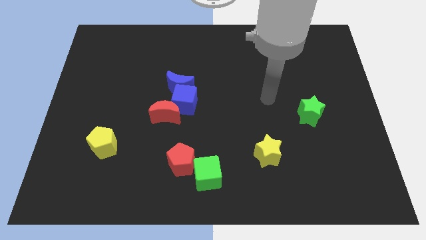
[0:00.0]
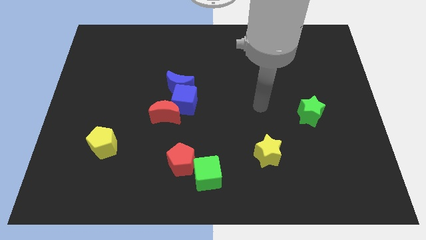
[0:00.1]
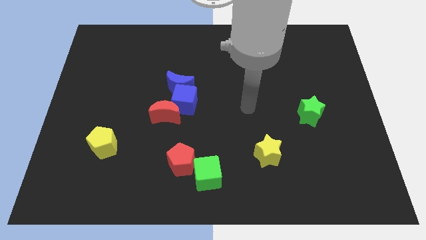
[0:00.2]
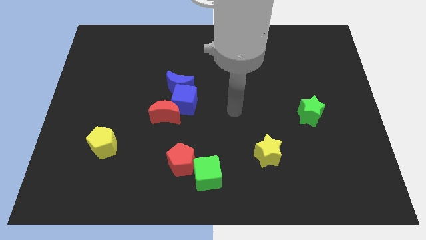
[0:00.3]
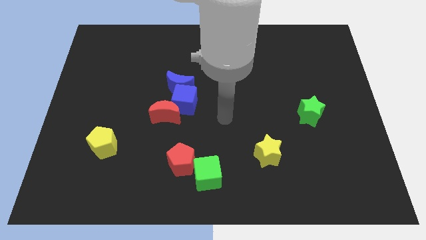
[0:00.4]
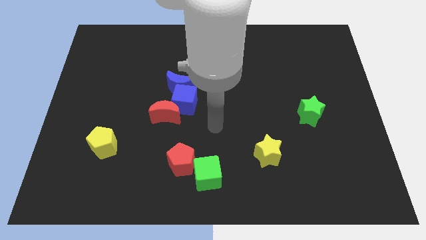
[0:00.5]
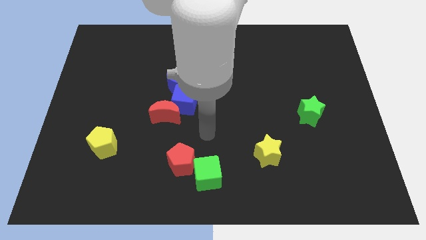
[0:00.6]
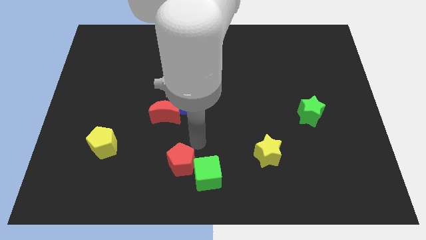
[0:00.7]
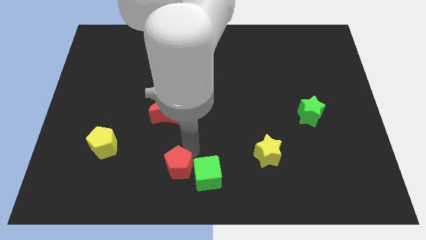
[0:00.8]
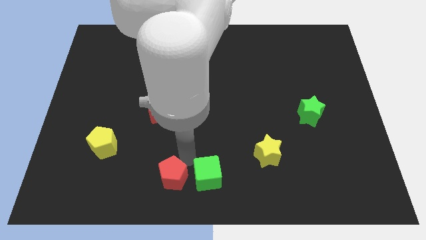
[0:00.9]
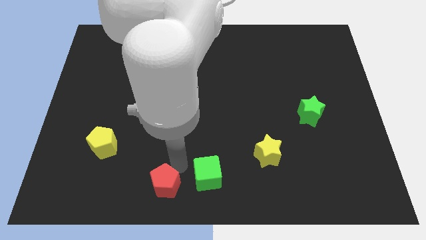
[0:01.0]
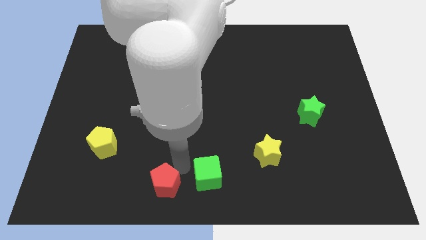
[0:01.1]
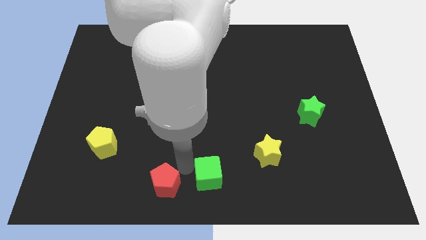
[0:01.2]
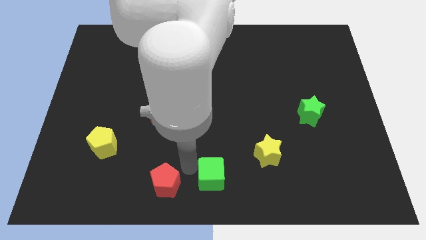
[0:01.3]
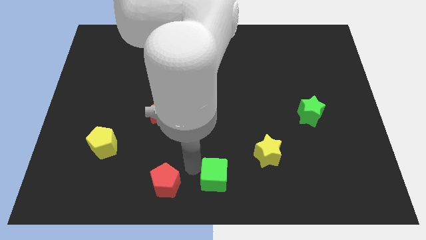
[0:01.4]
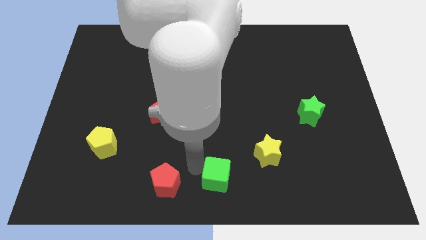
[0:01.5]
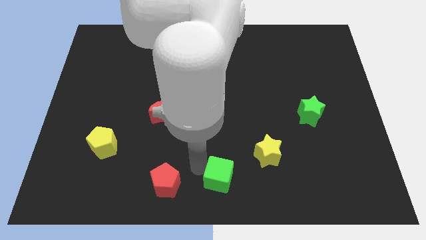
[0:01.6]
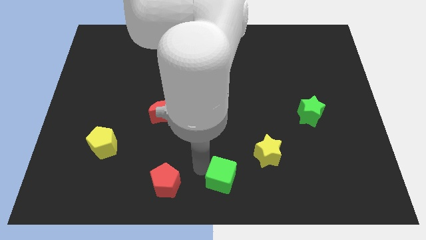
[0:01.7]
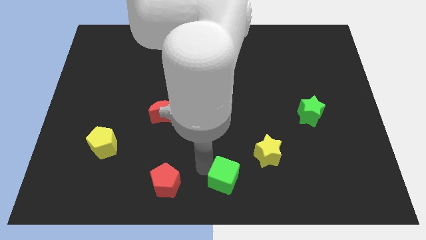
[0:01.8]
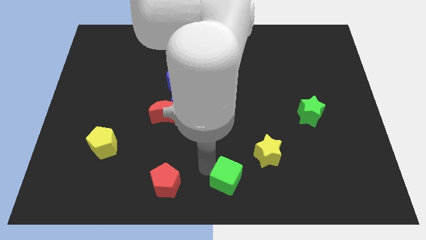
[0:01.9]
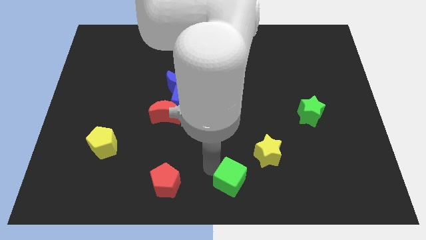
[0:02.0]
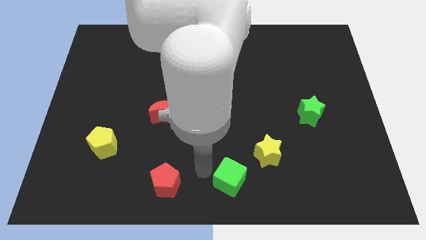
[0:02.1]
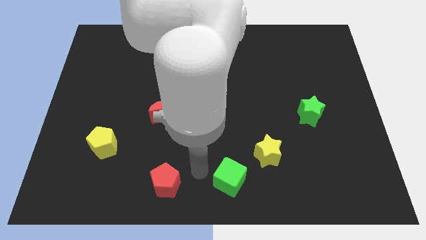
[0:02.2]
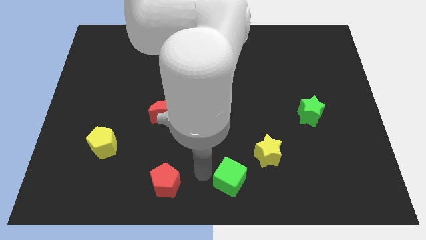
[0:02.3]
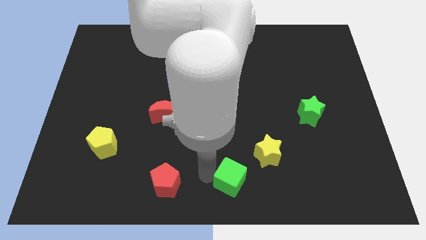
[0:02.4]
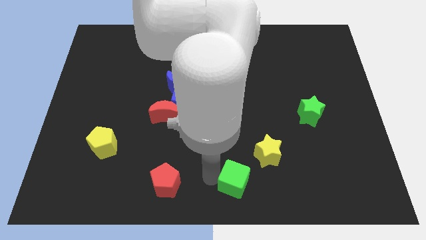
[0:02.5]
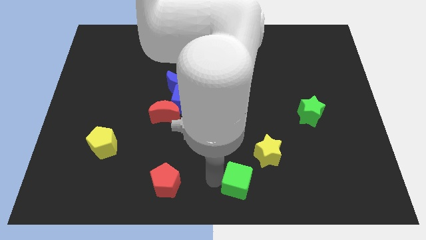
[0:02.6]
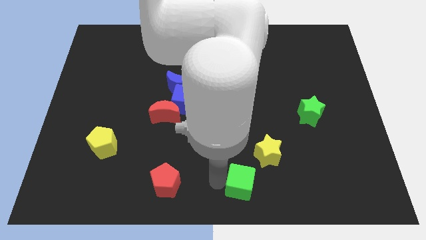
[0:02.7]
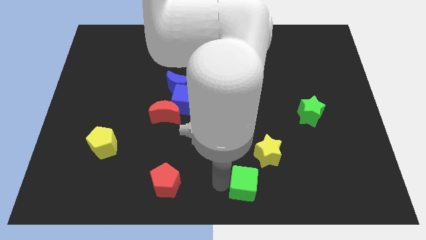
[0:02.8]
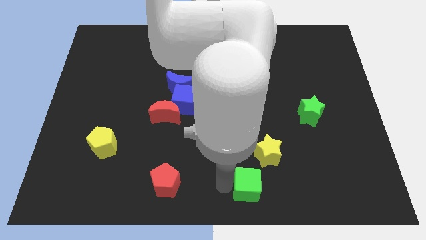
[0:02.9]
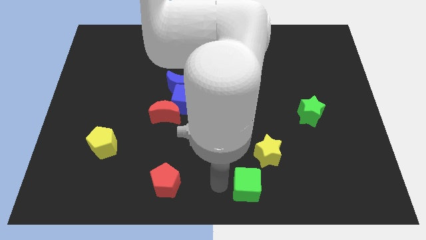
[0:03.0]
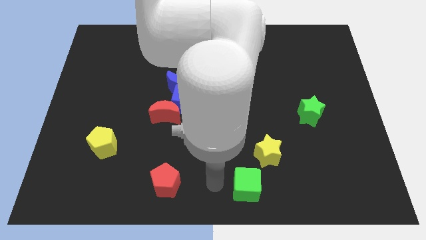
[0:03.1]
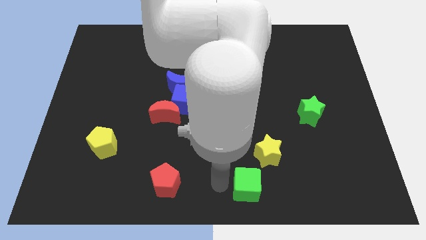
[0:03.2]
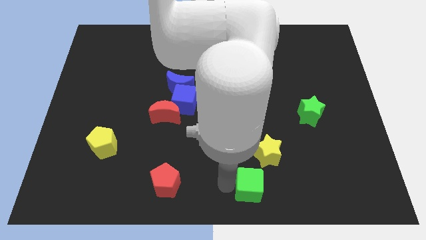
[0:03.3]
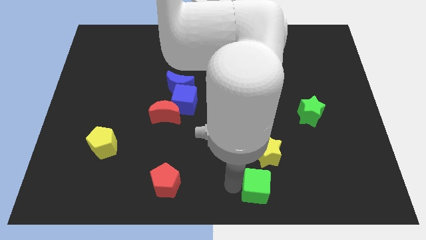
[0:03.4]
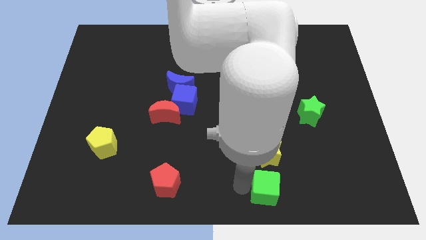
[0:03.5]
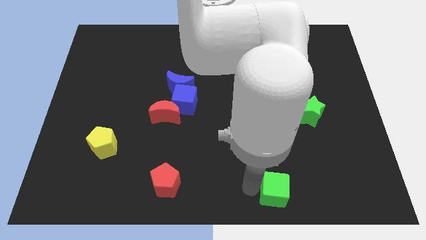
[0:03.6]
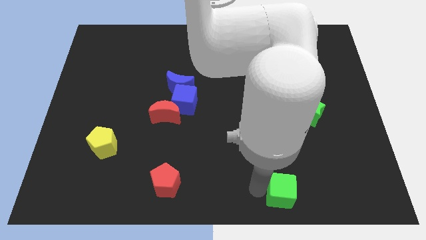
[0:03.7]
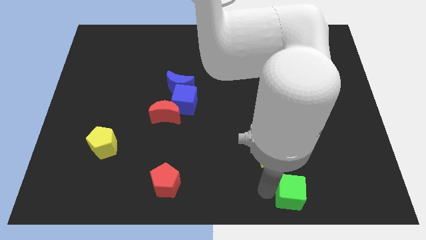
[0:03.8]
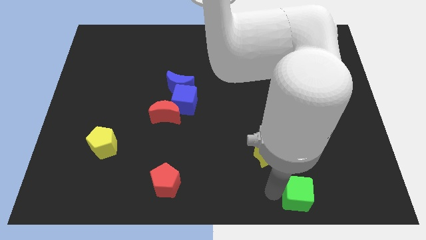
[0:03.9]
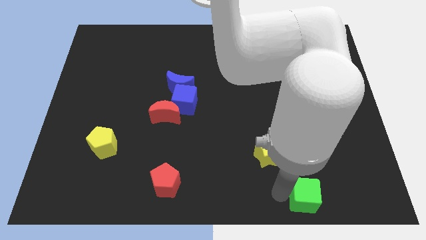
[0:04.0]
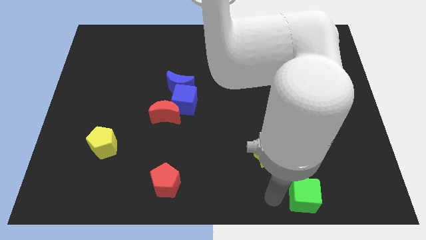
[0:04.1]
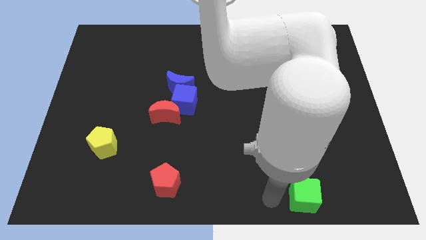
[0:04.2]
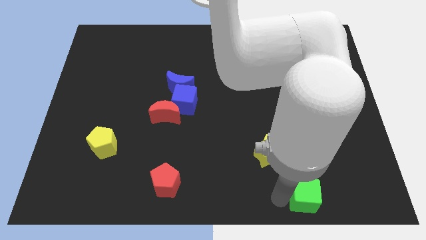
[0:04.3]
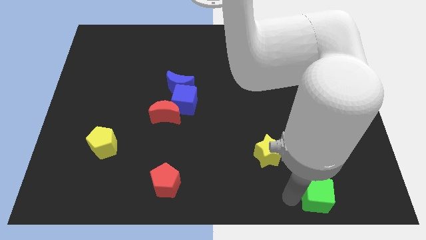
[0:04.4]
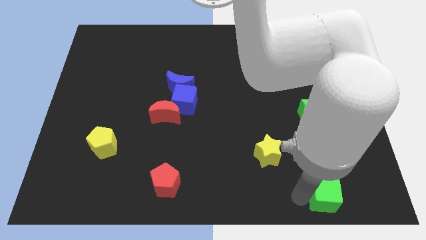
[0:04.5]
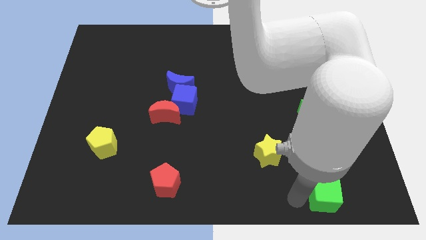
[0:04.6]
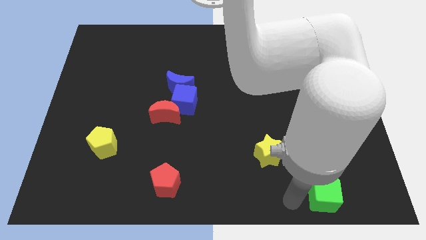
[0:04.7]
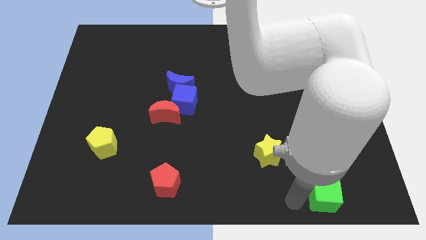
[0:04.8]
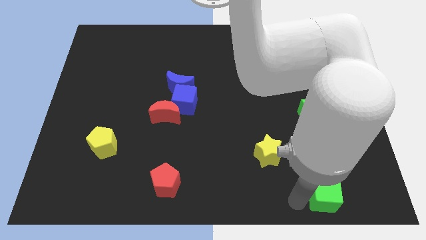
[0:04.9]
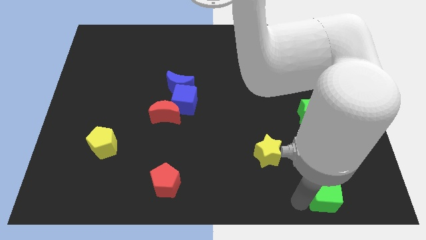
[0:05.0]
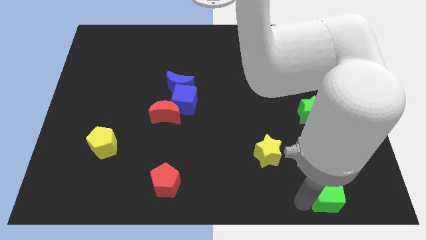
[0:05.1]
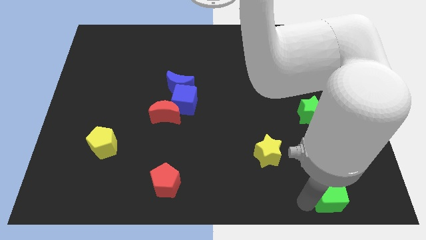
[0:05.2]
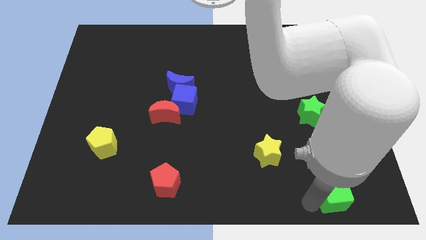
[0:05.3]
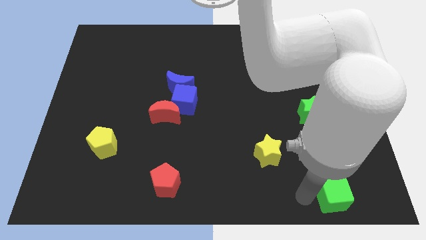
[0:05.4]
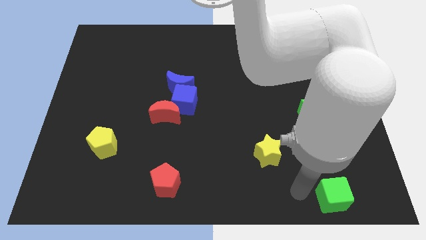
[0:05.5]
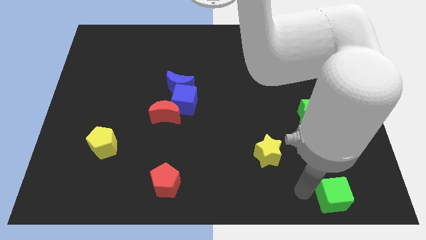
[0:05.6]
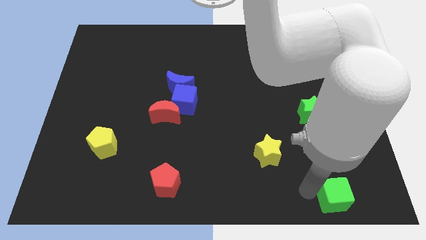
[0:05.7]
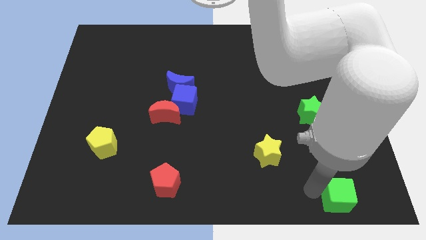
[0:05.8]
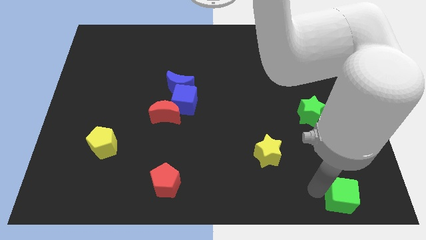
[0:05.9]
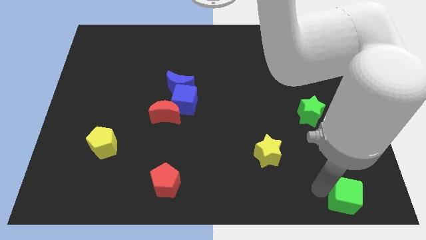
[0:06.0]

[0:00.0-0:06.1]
move the green cube to the bottom right
